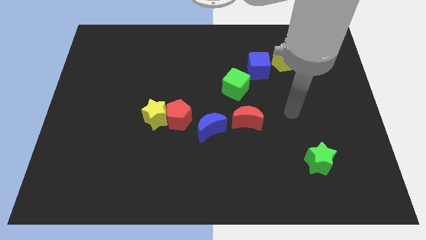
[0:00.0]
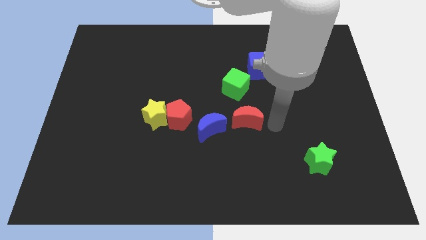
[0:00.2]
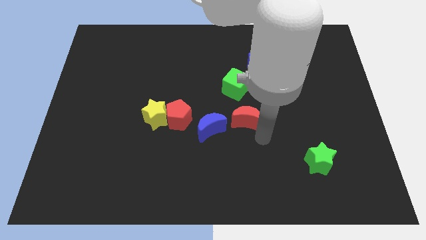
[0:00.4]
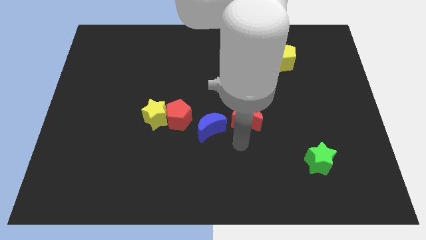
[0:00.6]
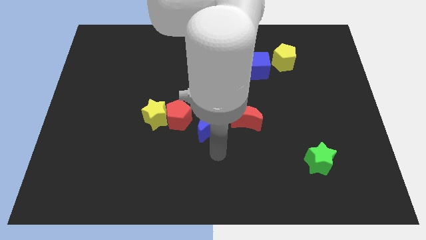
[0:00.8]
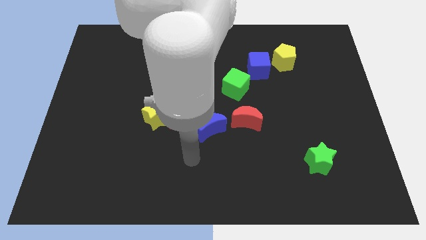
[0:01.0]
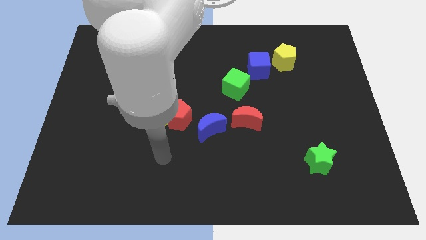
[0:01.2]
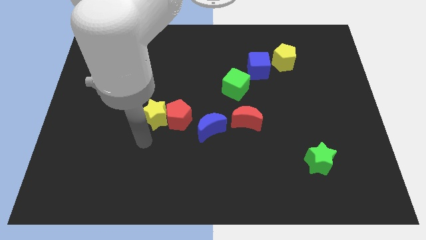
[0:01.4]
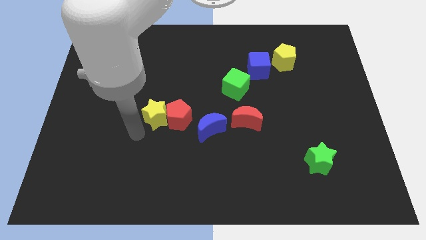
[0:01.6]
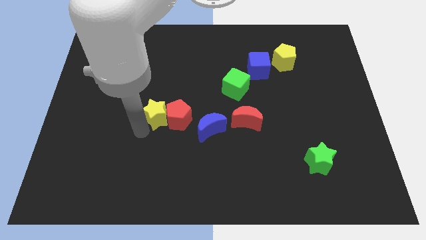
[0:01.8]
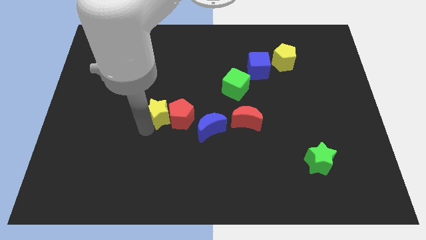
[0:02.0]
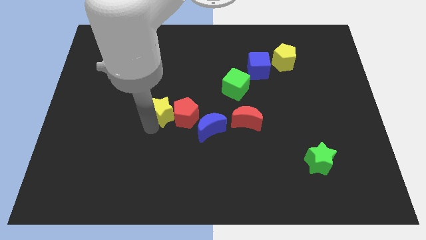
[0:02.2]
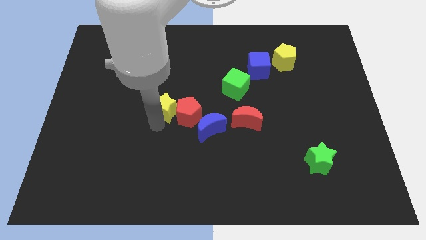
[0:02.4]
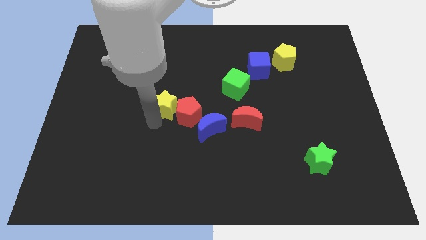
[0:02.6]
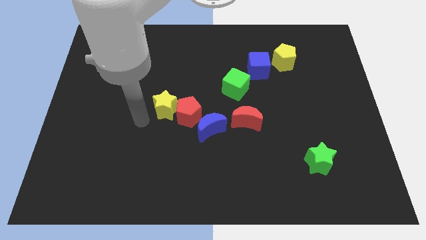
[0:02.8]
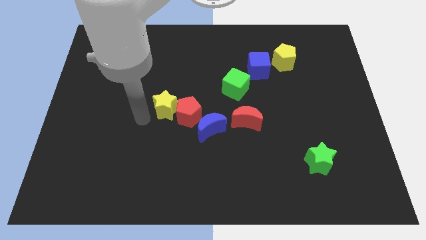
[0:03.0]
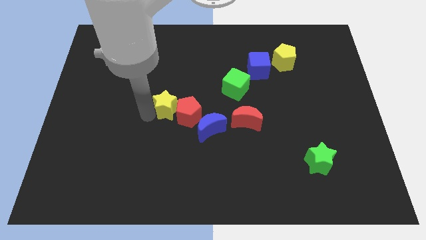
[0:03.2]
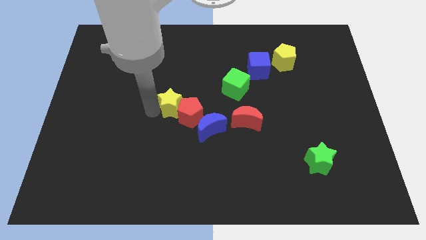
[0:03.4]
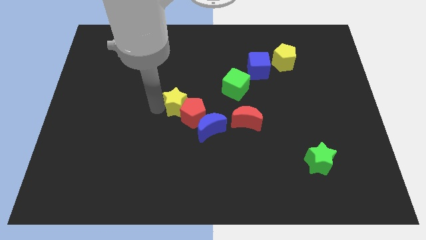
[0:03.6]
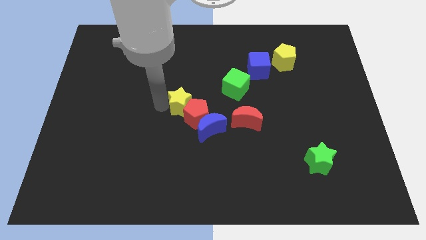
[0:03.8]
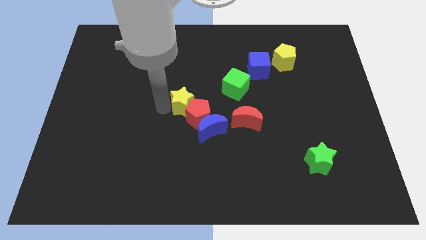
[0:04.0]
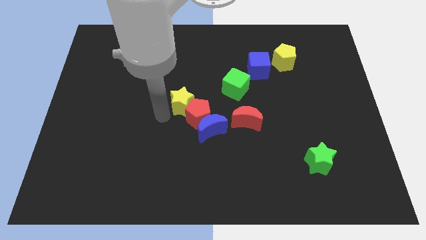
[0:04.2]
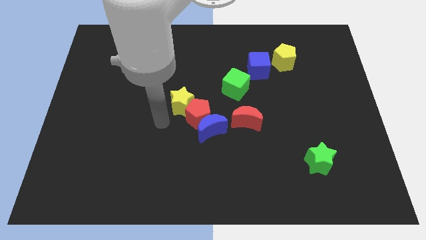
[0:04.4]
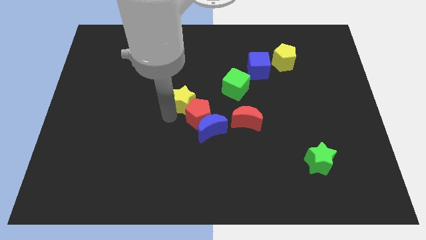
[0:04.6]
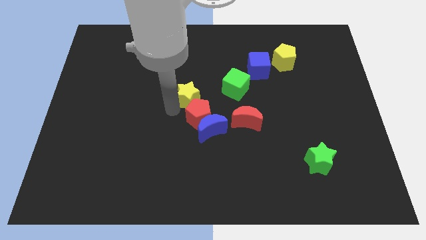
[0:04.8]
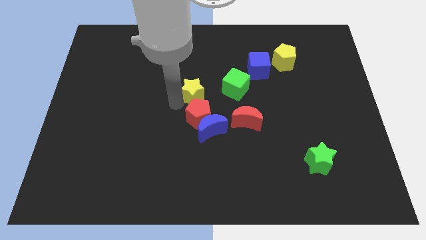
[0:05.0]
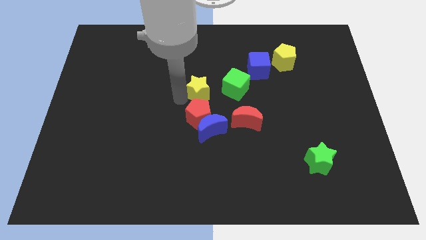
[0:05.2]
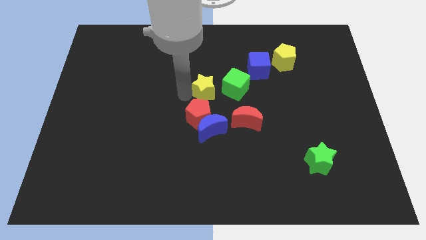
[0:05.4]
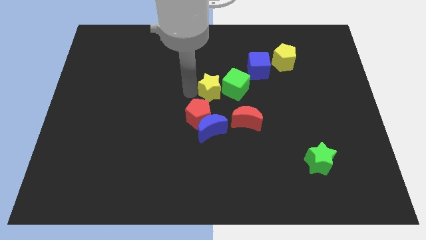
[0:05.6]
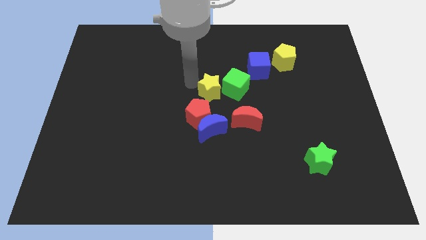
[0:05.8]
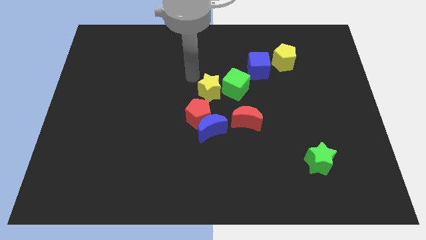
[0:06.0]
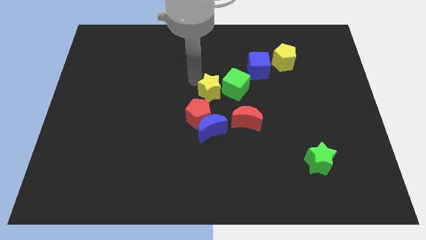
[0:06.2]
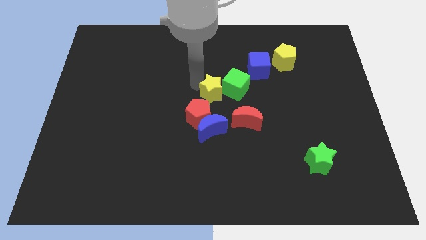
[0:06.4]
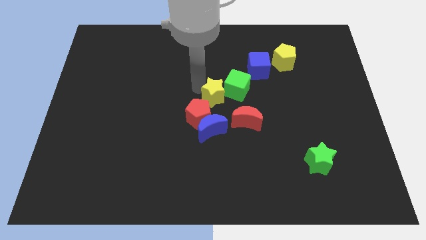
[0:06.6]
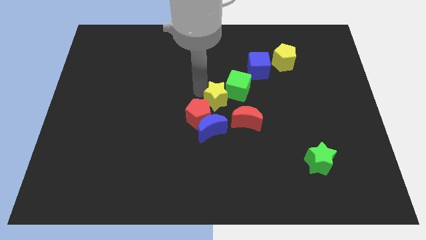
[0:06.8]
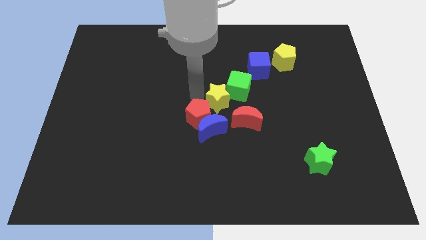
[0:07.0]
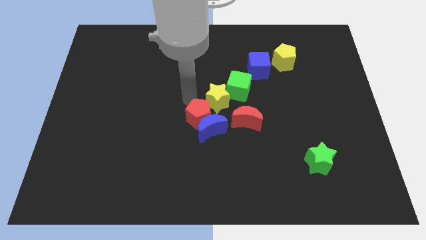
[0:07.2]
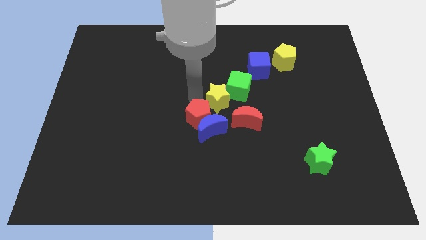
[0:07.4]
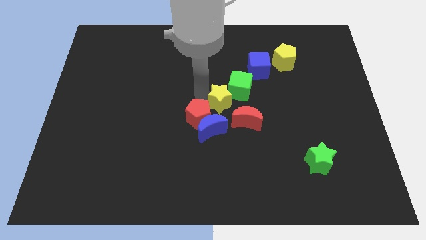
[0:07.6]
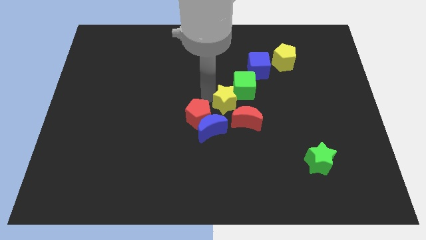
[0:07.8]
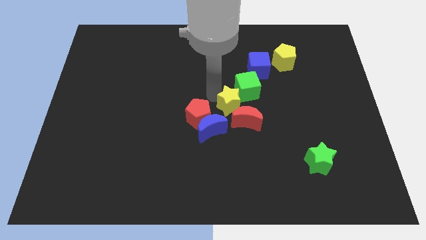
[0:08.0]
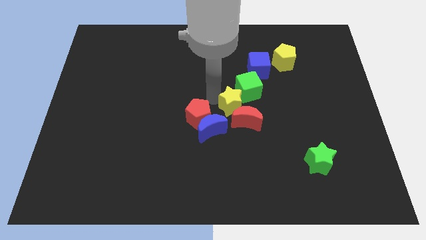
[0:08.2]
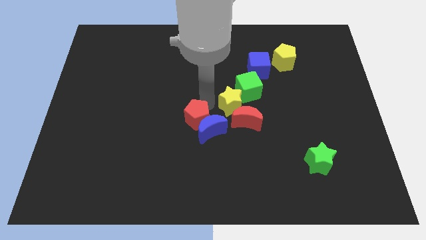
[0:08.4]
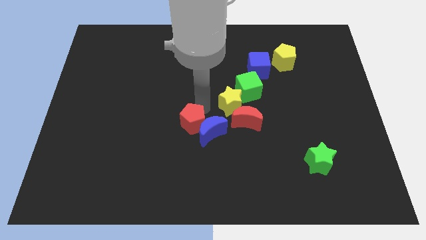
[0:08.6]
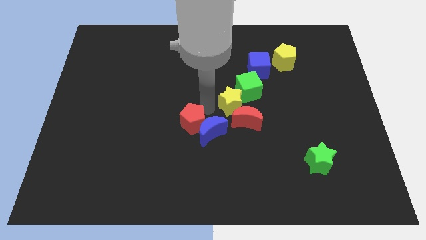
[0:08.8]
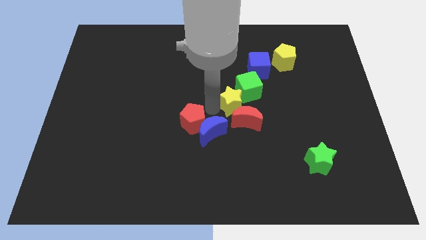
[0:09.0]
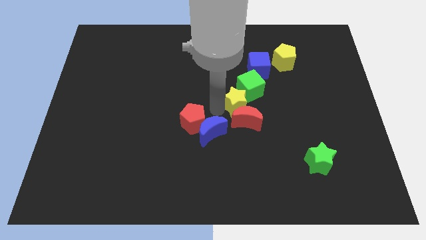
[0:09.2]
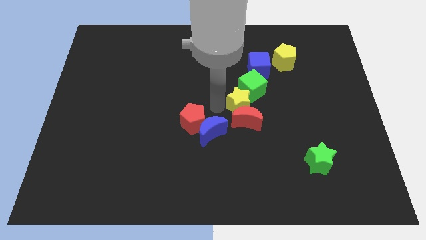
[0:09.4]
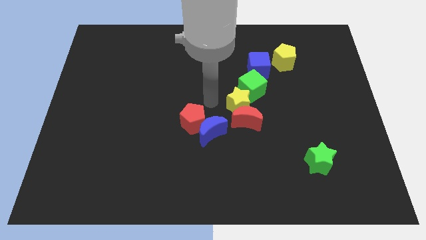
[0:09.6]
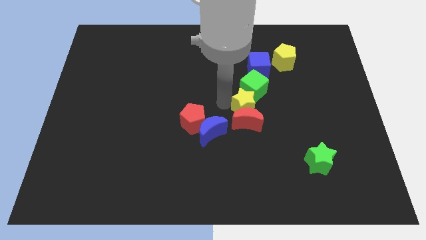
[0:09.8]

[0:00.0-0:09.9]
slide the yellow star to the right

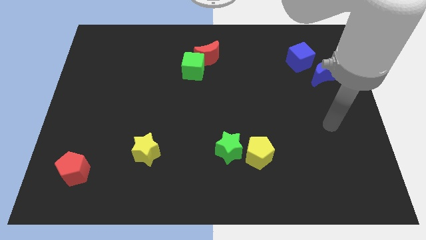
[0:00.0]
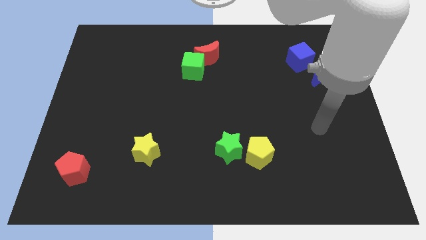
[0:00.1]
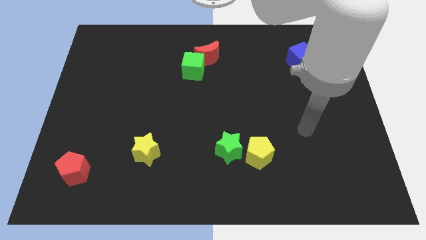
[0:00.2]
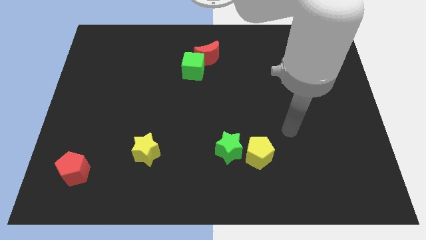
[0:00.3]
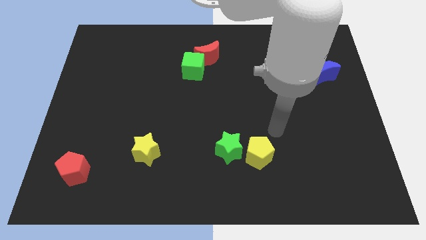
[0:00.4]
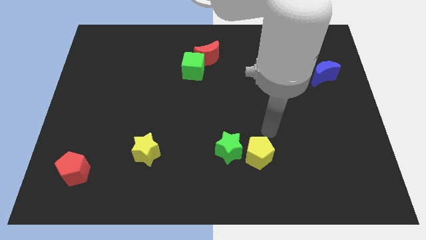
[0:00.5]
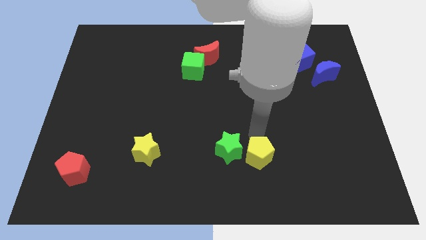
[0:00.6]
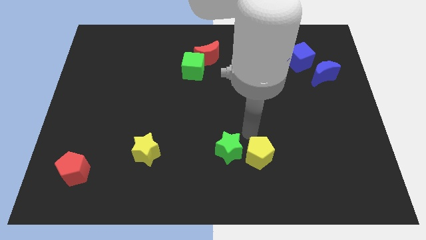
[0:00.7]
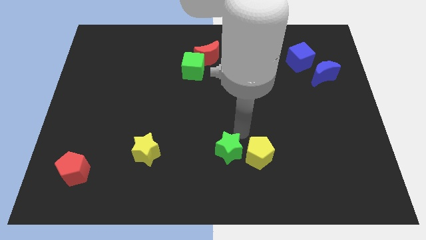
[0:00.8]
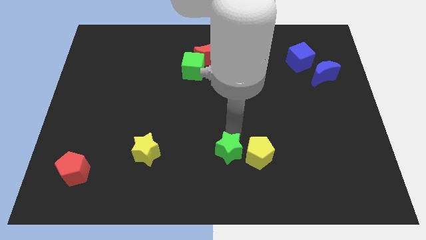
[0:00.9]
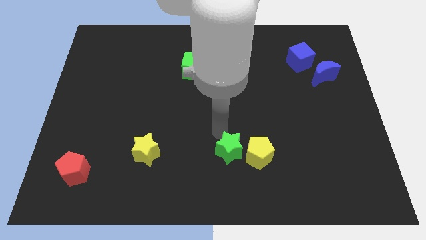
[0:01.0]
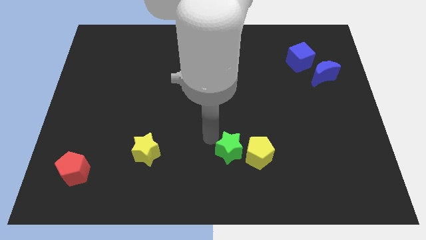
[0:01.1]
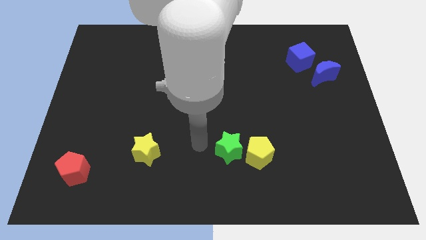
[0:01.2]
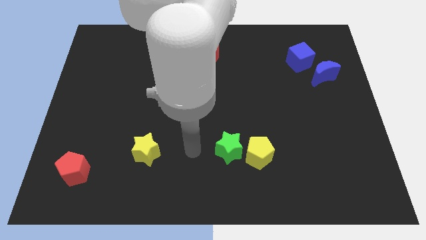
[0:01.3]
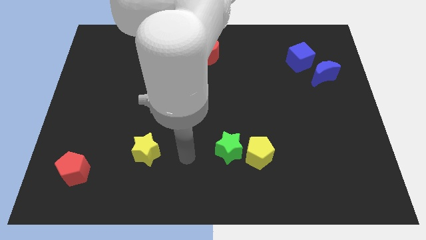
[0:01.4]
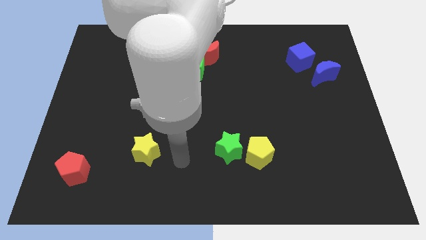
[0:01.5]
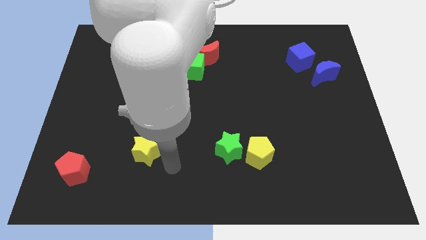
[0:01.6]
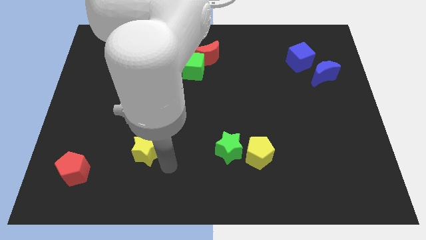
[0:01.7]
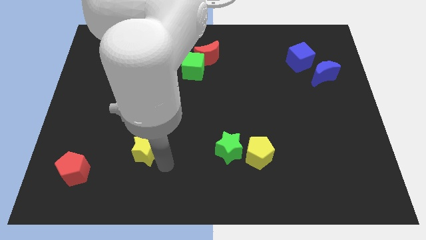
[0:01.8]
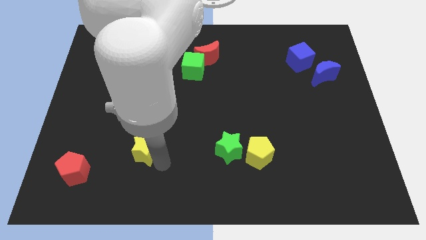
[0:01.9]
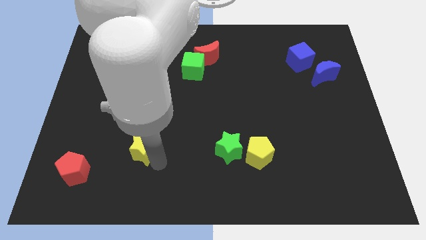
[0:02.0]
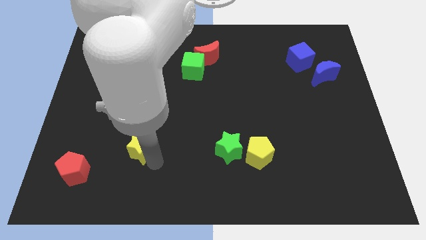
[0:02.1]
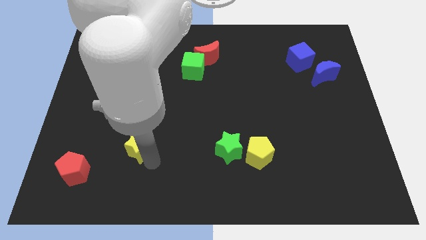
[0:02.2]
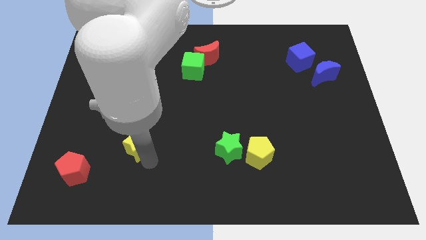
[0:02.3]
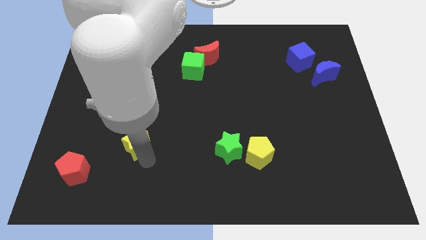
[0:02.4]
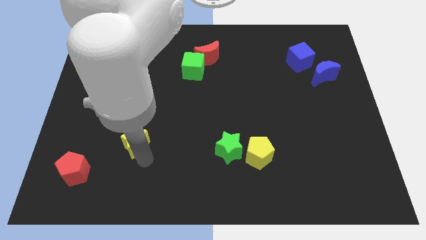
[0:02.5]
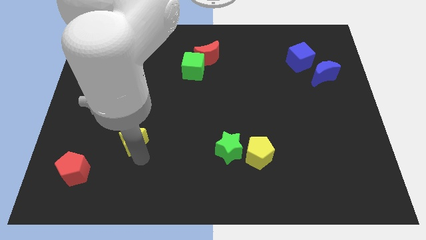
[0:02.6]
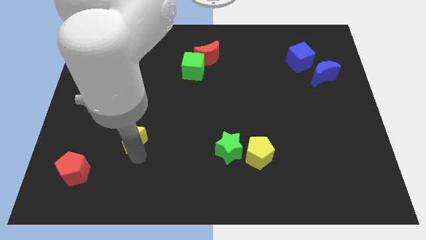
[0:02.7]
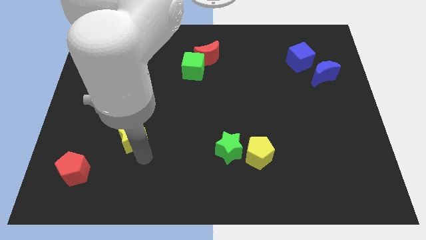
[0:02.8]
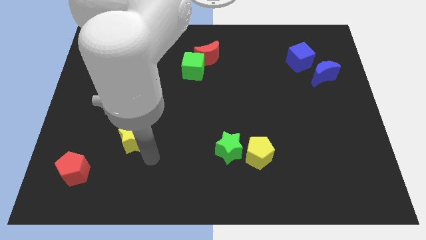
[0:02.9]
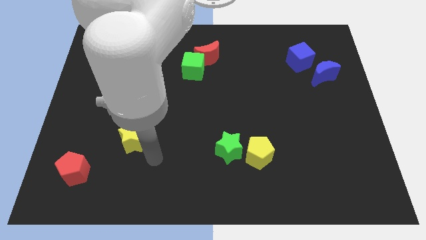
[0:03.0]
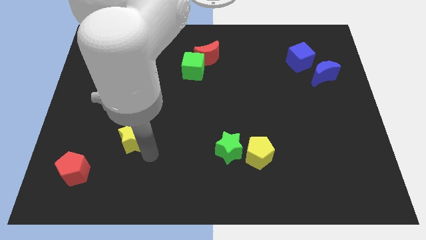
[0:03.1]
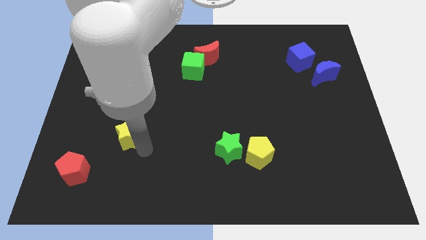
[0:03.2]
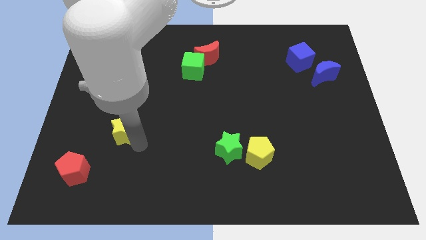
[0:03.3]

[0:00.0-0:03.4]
slide the yellow star somewhat up and to the left diagonally
